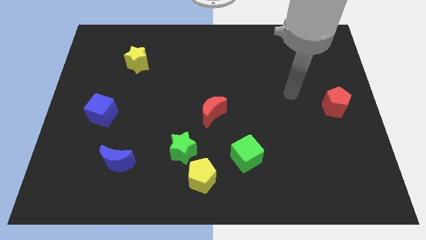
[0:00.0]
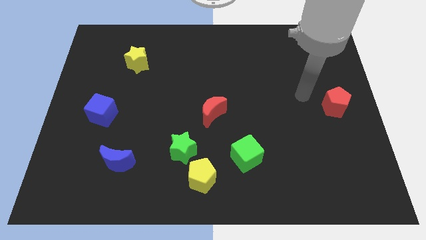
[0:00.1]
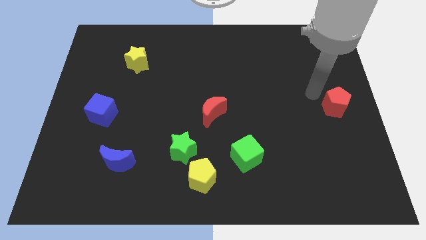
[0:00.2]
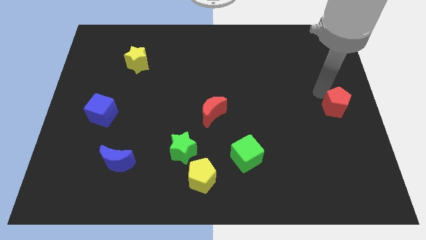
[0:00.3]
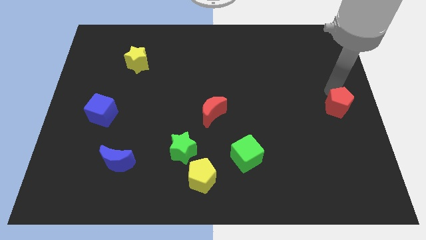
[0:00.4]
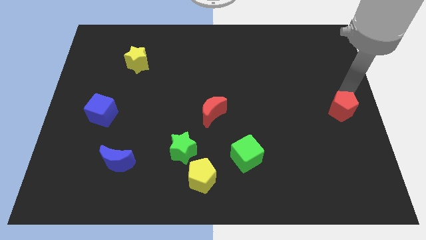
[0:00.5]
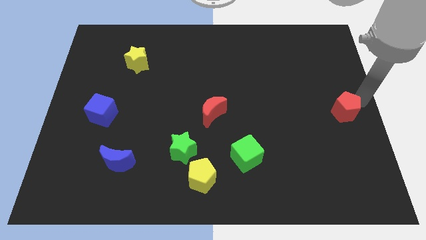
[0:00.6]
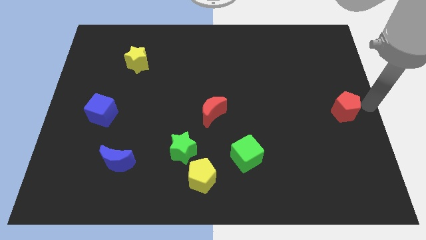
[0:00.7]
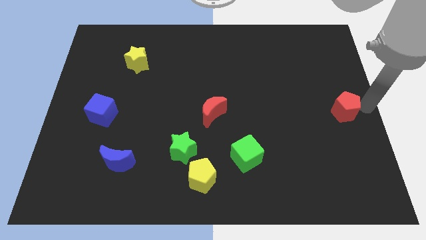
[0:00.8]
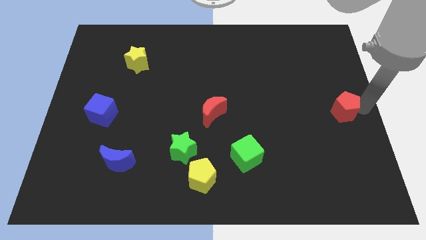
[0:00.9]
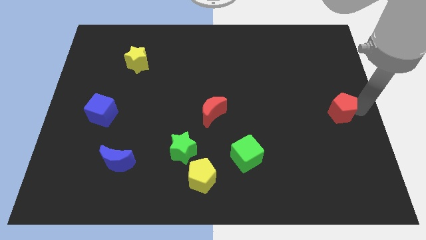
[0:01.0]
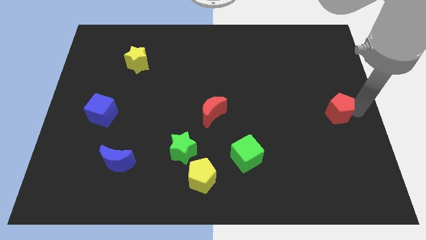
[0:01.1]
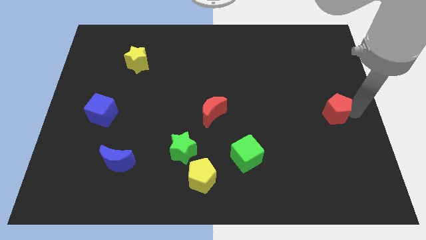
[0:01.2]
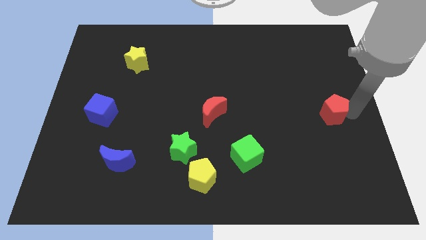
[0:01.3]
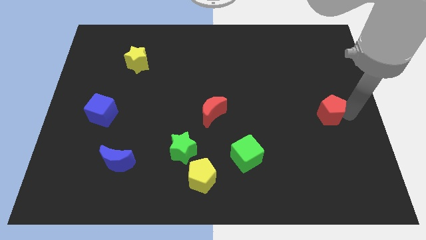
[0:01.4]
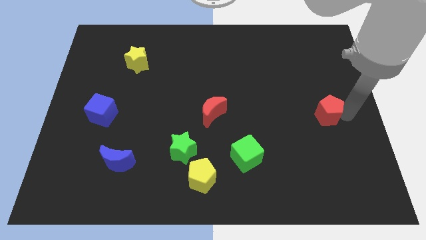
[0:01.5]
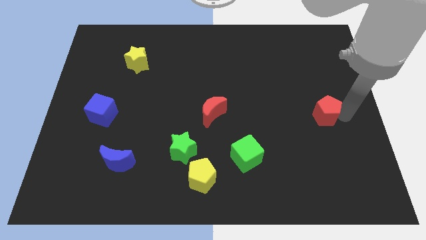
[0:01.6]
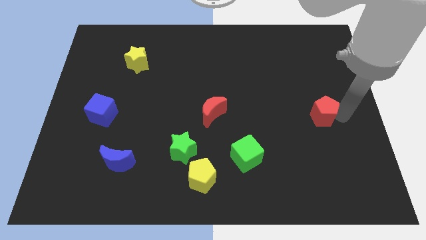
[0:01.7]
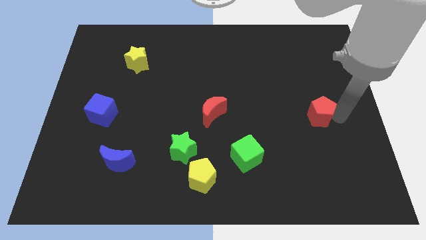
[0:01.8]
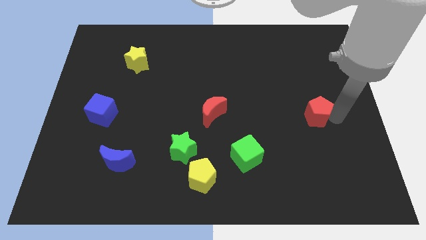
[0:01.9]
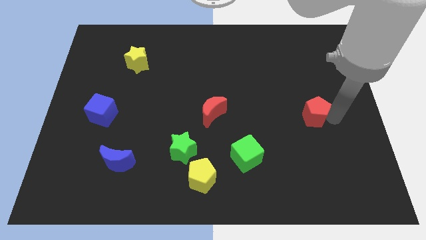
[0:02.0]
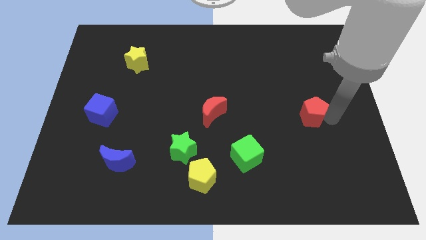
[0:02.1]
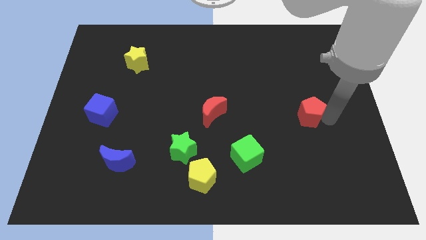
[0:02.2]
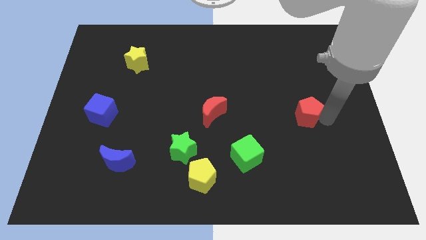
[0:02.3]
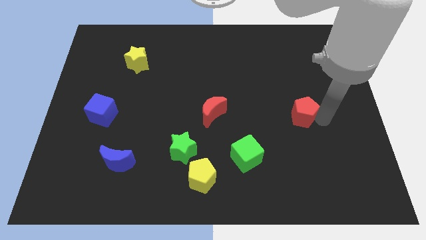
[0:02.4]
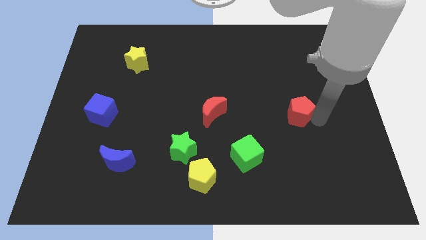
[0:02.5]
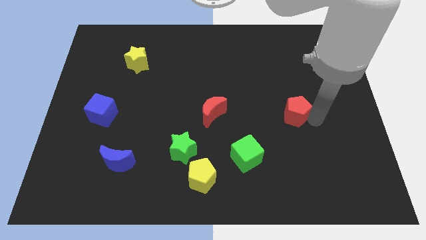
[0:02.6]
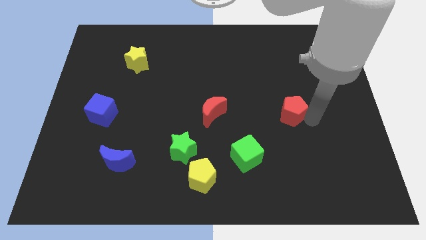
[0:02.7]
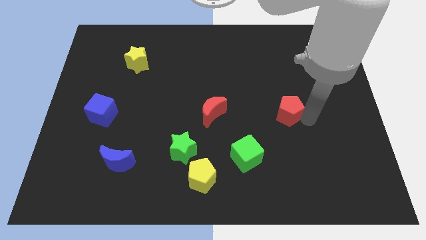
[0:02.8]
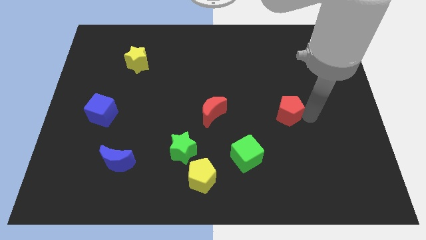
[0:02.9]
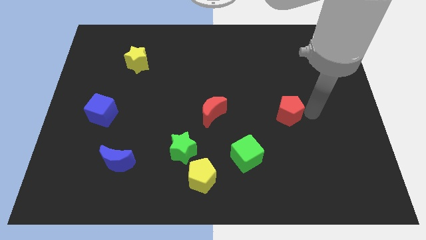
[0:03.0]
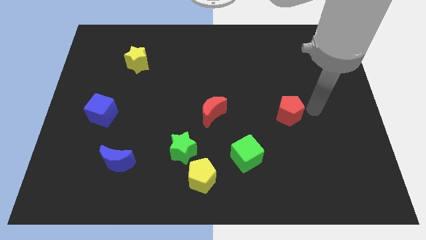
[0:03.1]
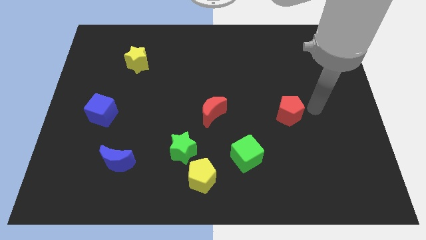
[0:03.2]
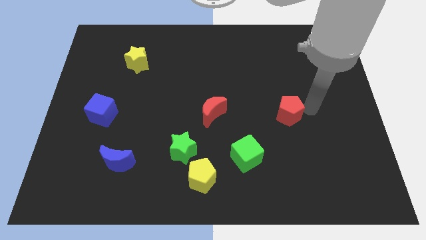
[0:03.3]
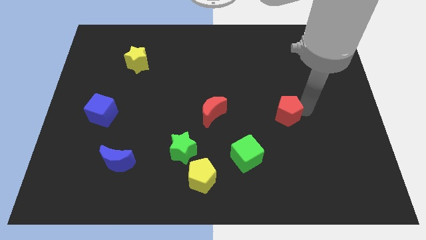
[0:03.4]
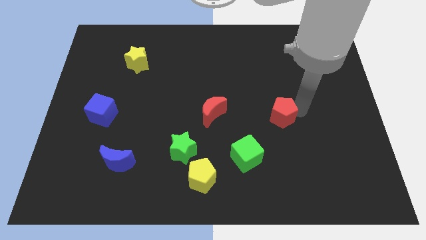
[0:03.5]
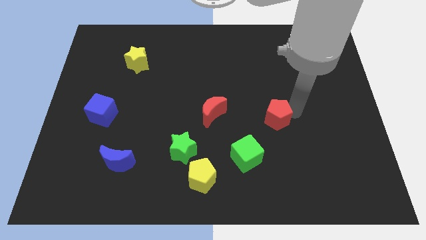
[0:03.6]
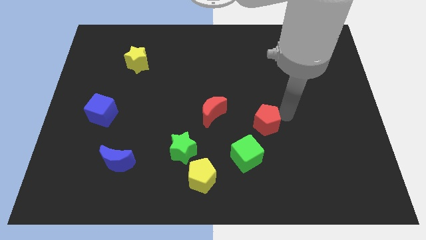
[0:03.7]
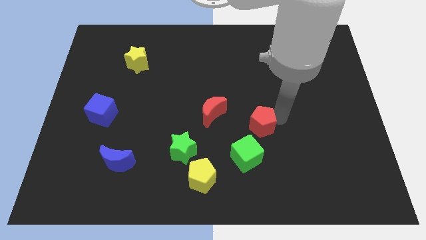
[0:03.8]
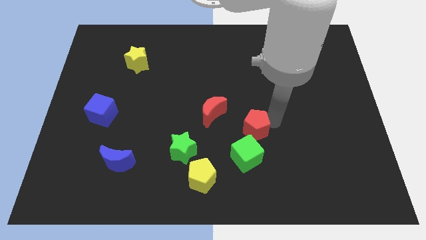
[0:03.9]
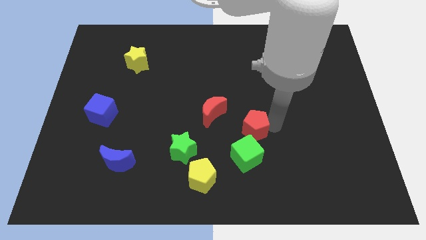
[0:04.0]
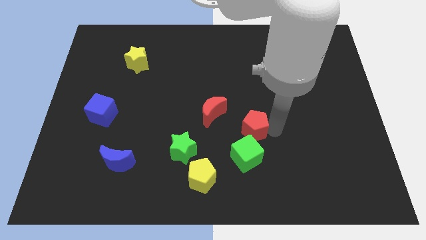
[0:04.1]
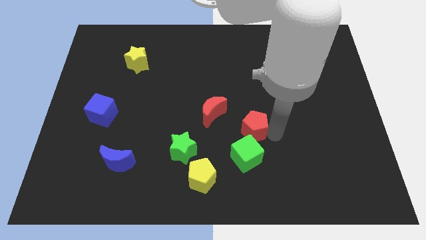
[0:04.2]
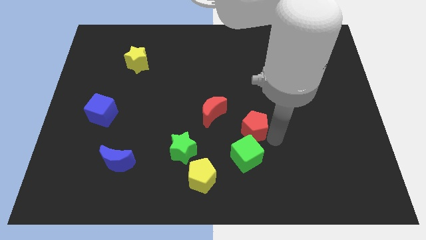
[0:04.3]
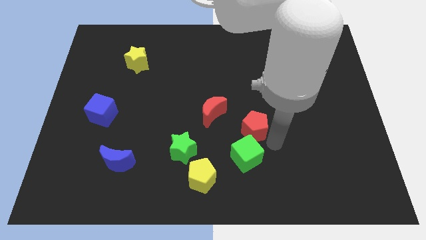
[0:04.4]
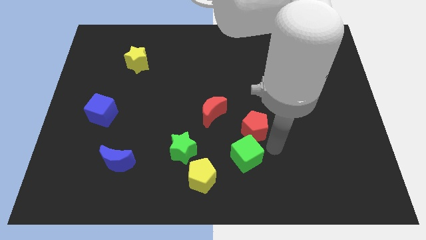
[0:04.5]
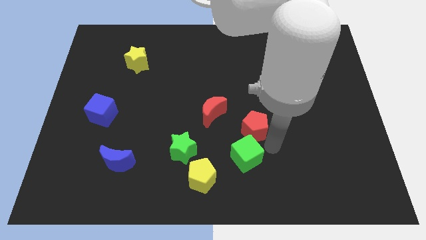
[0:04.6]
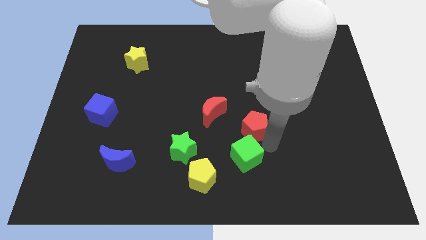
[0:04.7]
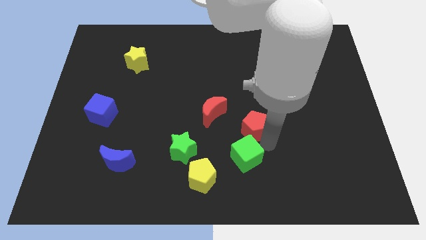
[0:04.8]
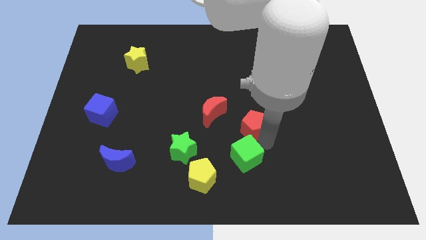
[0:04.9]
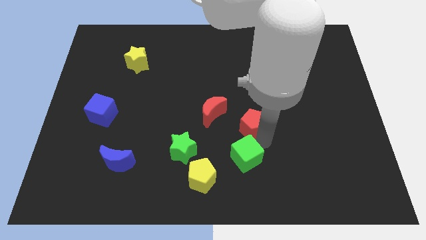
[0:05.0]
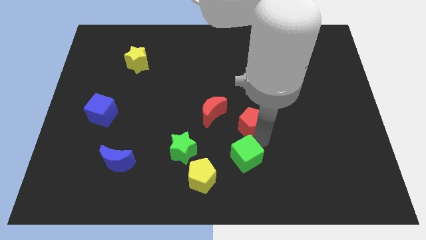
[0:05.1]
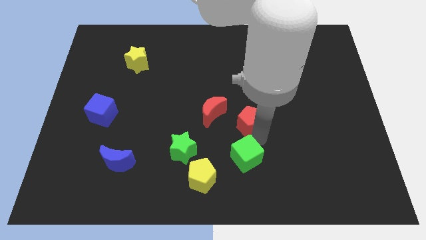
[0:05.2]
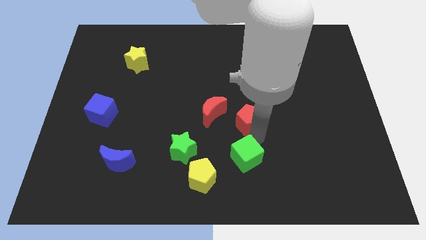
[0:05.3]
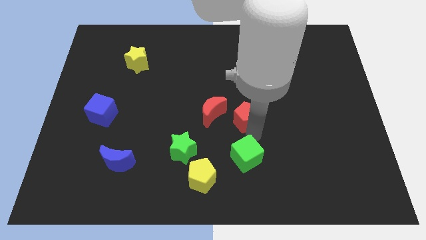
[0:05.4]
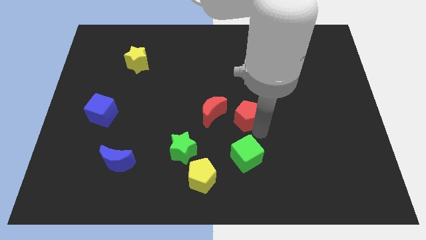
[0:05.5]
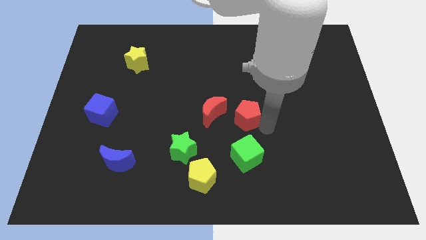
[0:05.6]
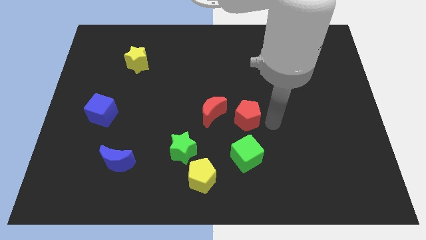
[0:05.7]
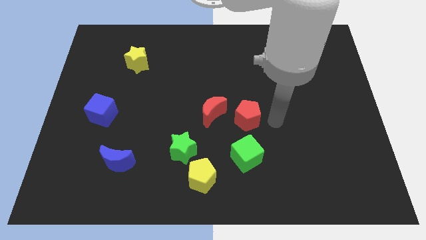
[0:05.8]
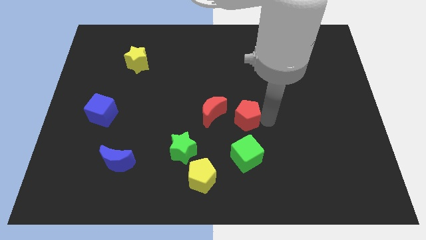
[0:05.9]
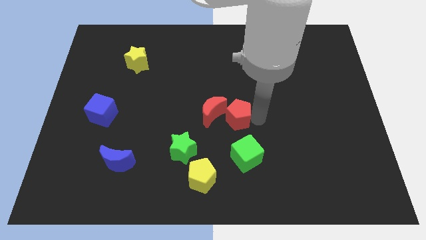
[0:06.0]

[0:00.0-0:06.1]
move the red pentagon towards the red moon

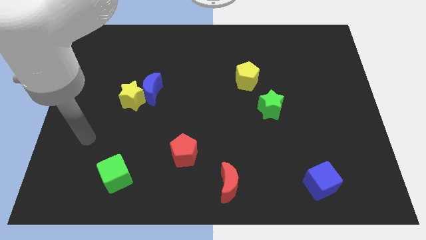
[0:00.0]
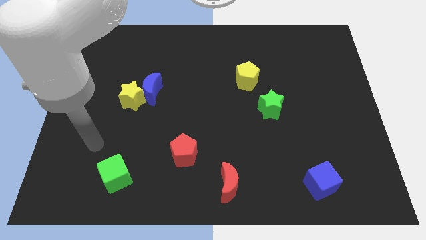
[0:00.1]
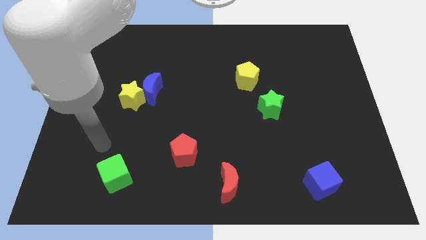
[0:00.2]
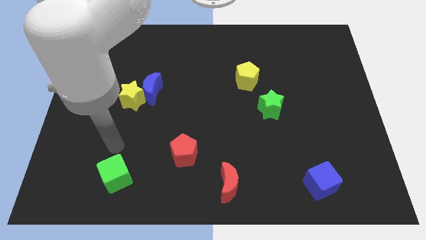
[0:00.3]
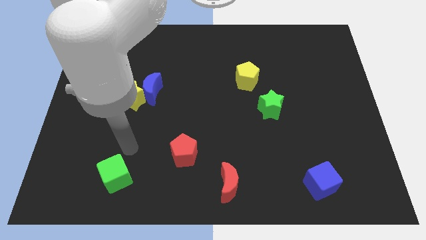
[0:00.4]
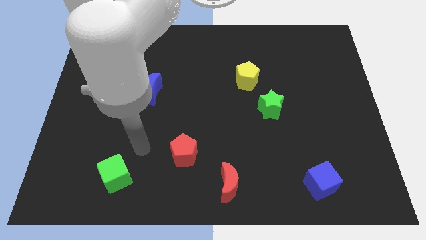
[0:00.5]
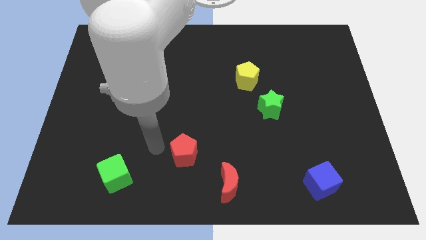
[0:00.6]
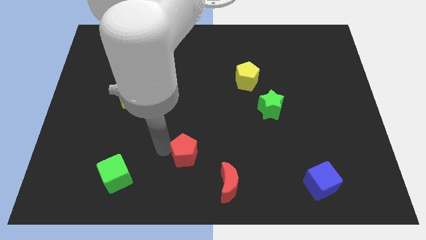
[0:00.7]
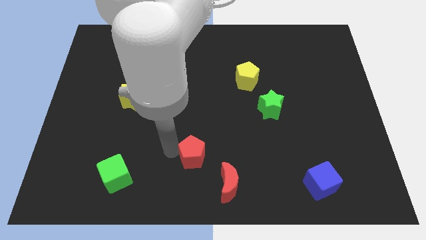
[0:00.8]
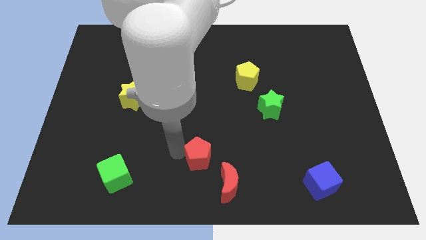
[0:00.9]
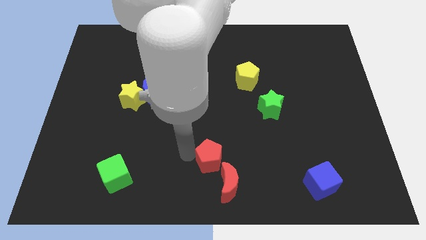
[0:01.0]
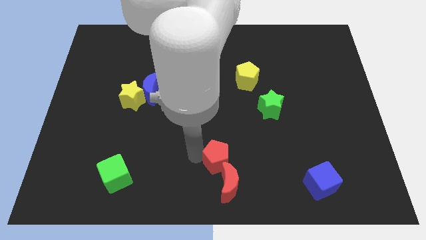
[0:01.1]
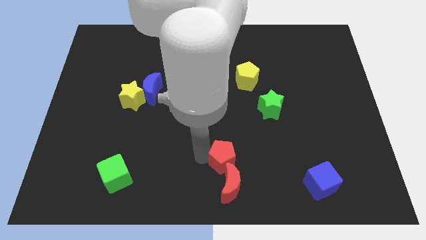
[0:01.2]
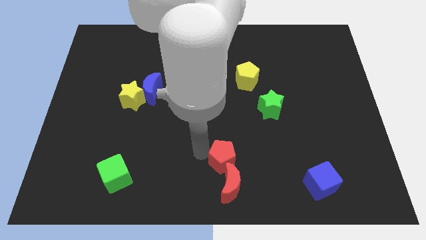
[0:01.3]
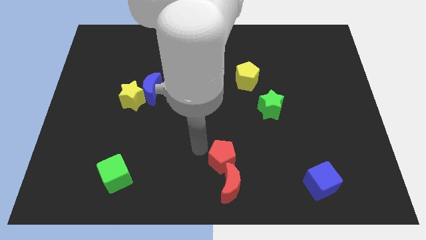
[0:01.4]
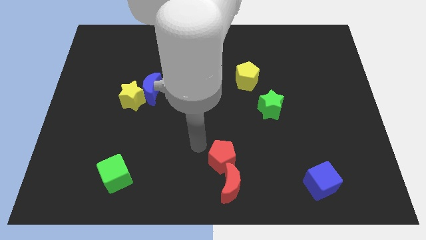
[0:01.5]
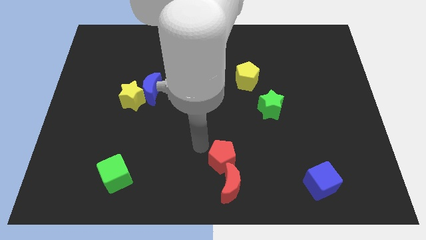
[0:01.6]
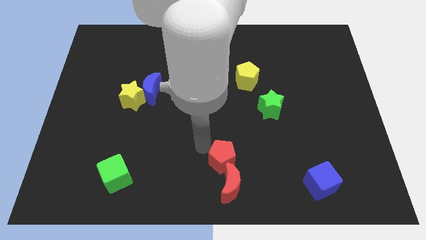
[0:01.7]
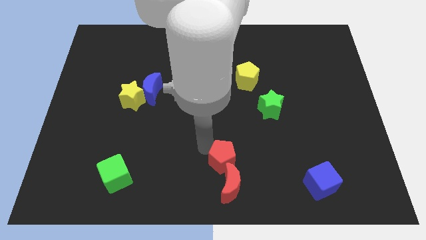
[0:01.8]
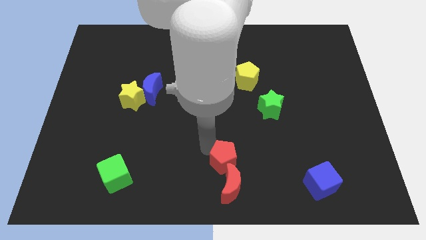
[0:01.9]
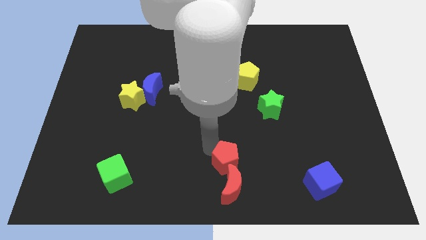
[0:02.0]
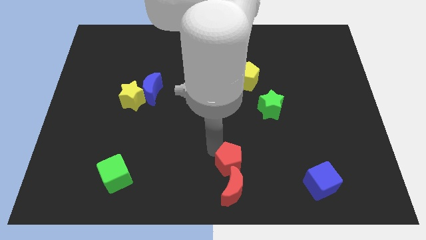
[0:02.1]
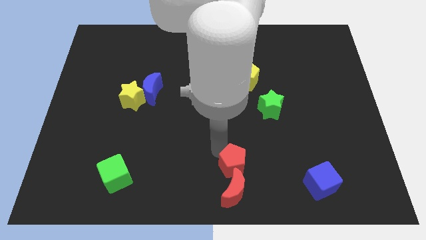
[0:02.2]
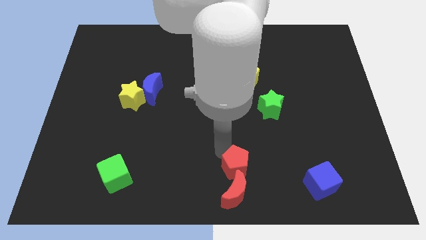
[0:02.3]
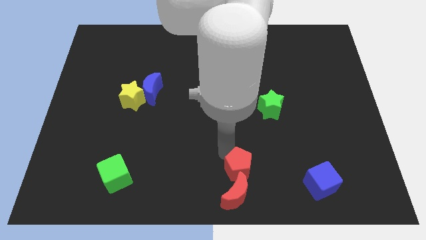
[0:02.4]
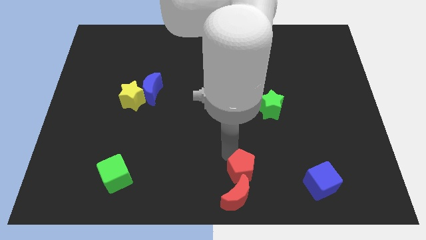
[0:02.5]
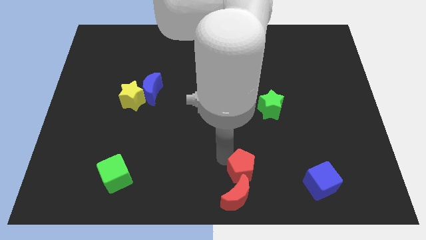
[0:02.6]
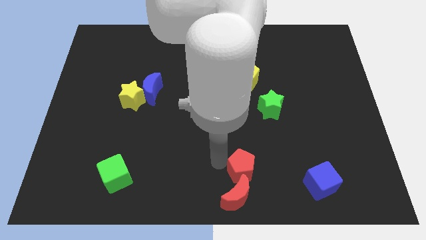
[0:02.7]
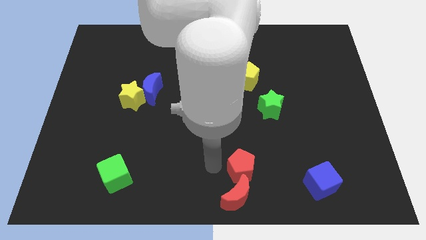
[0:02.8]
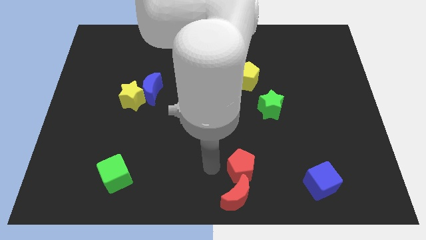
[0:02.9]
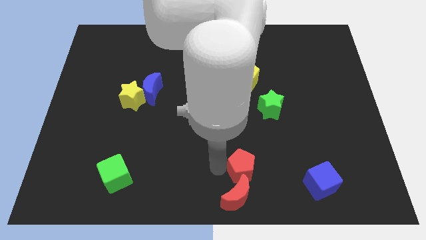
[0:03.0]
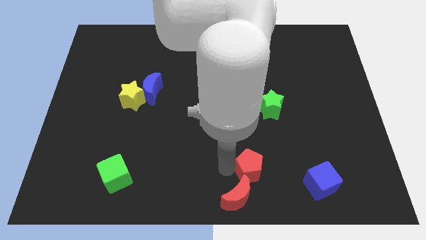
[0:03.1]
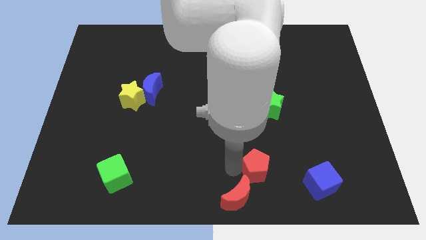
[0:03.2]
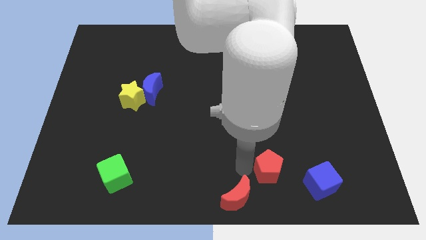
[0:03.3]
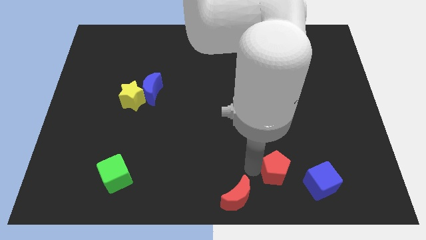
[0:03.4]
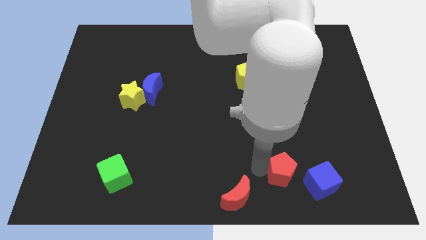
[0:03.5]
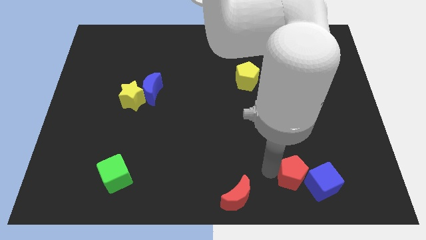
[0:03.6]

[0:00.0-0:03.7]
put the red pentagon towards the blue cube
